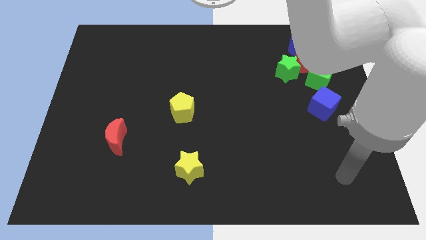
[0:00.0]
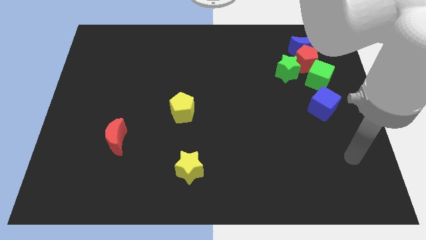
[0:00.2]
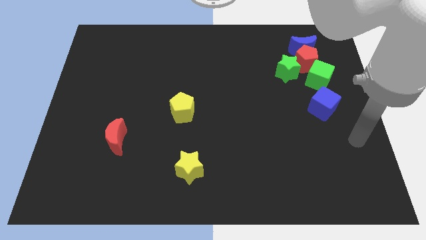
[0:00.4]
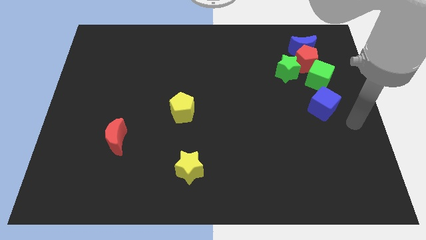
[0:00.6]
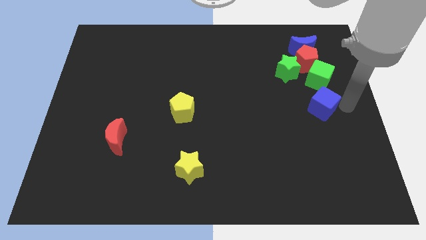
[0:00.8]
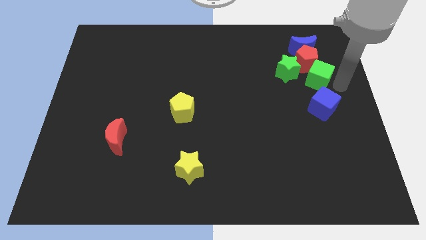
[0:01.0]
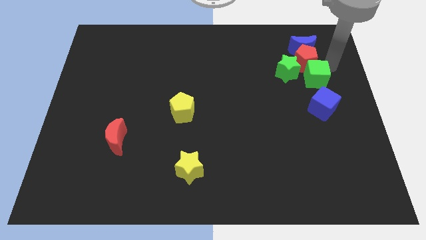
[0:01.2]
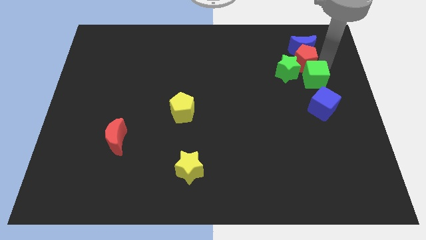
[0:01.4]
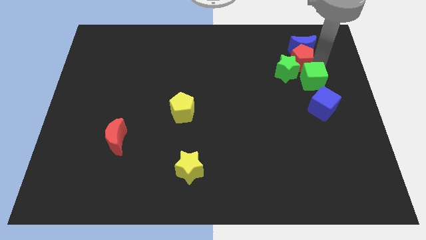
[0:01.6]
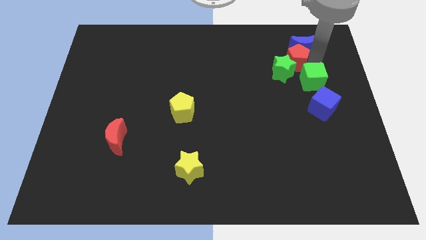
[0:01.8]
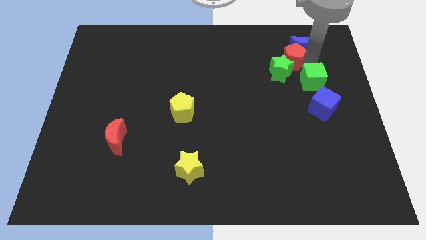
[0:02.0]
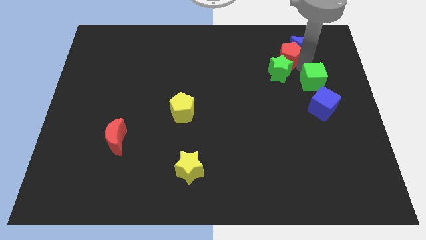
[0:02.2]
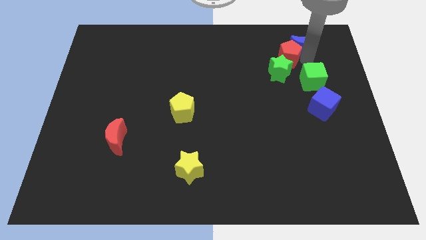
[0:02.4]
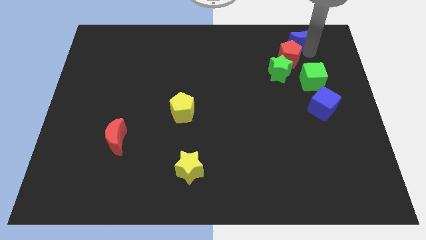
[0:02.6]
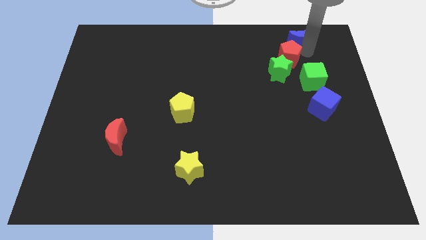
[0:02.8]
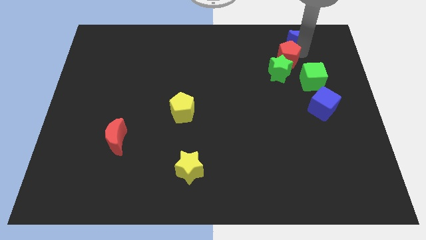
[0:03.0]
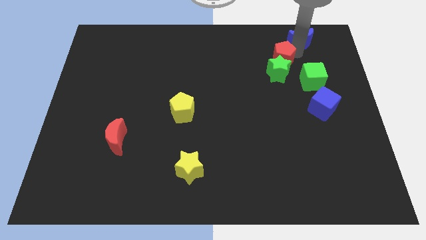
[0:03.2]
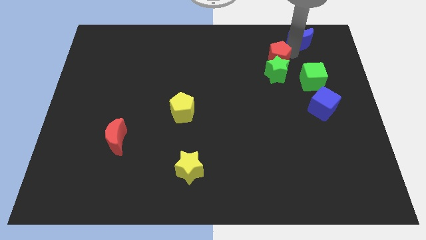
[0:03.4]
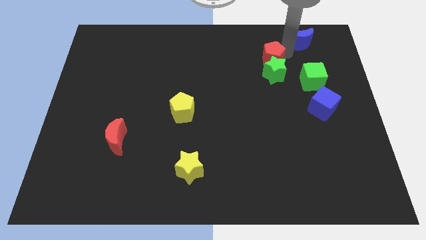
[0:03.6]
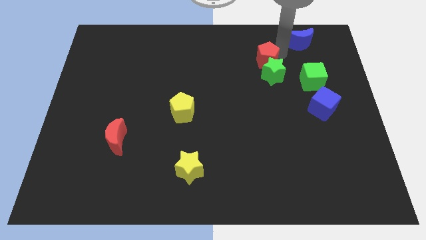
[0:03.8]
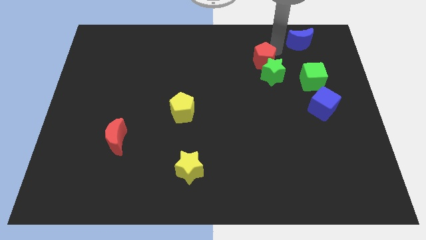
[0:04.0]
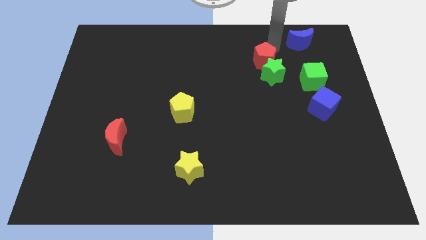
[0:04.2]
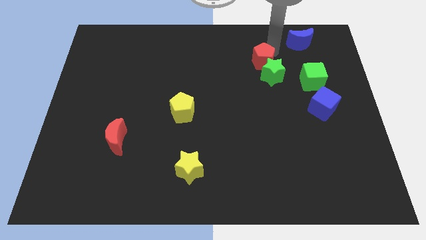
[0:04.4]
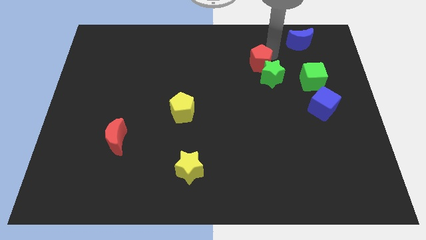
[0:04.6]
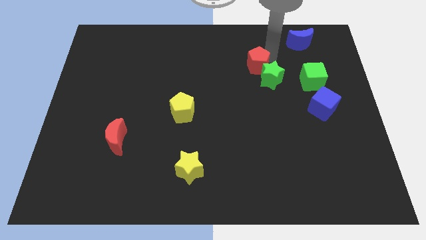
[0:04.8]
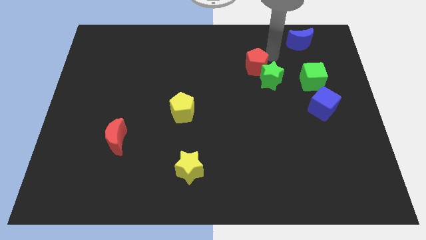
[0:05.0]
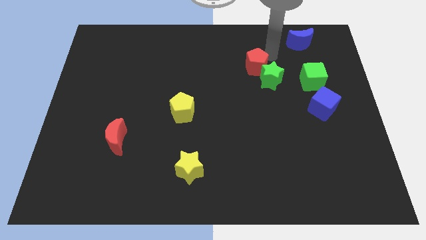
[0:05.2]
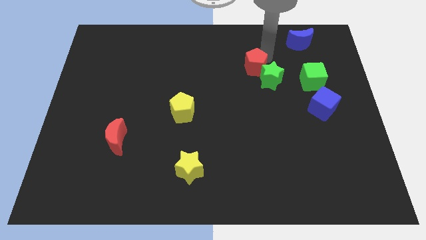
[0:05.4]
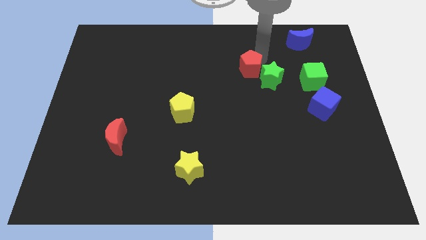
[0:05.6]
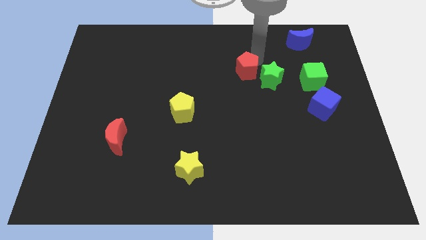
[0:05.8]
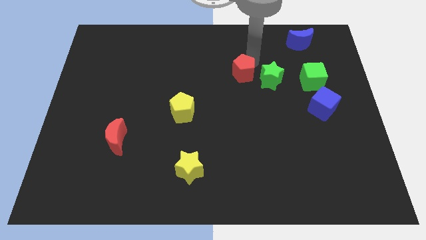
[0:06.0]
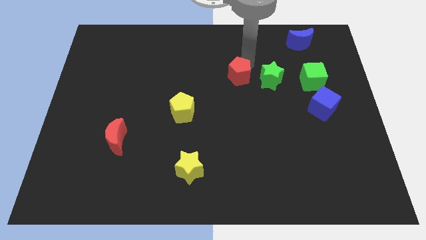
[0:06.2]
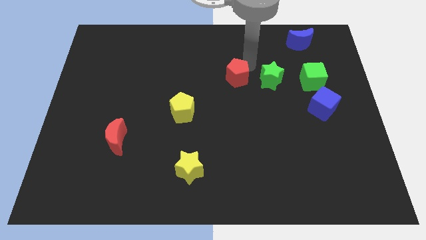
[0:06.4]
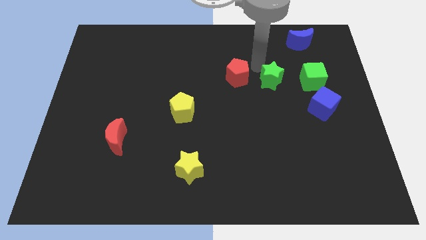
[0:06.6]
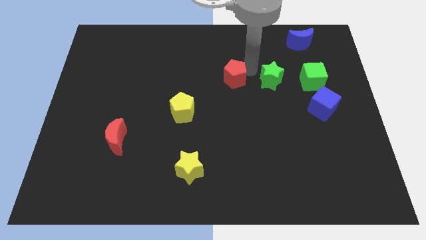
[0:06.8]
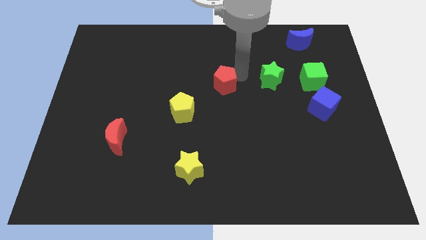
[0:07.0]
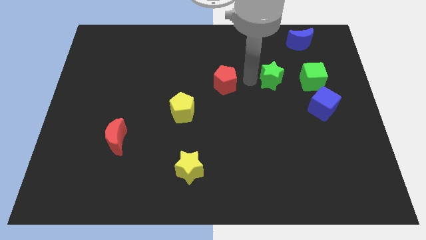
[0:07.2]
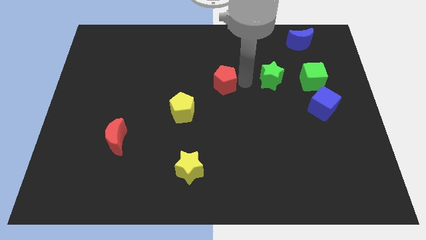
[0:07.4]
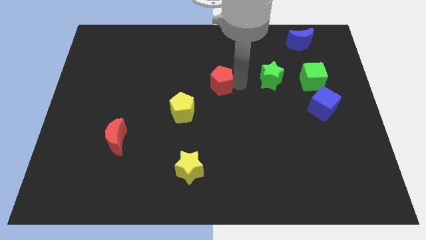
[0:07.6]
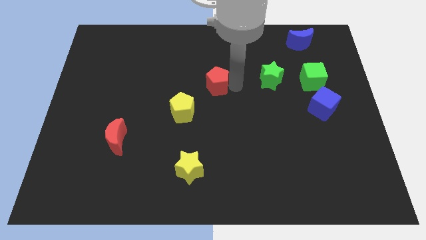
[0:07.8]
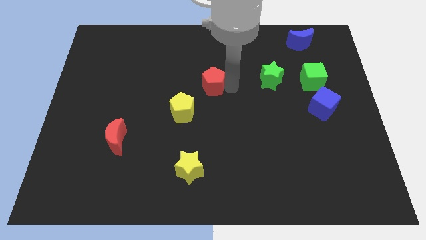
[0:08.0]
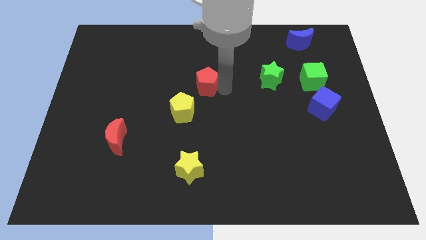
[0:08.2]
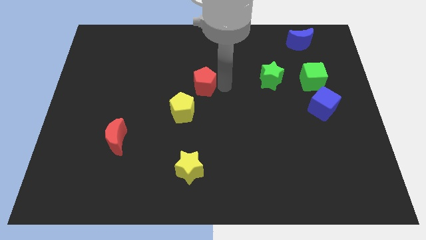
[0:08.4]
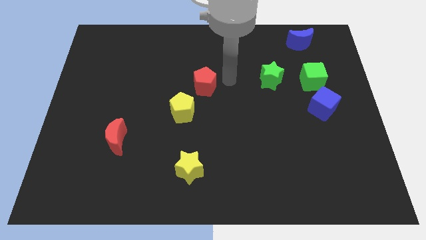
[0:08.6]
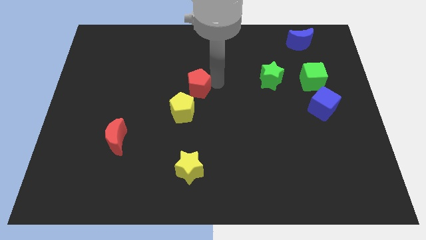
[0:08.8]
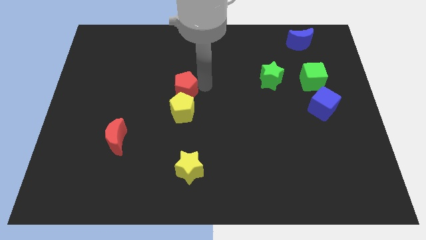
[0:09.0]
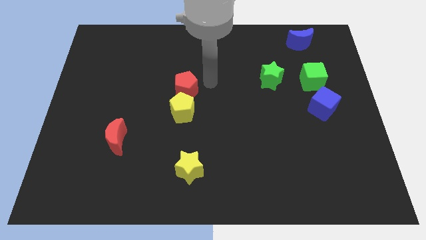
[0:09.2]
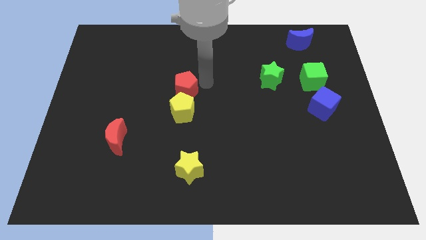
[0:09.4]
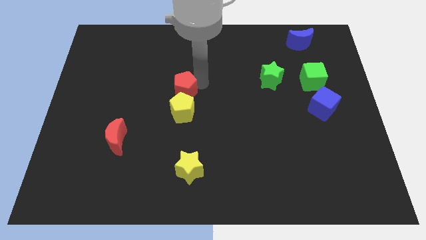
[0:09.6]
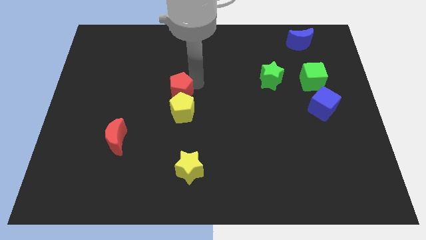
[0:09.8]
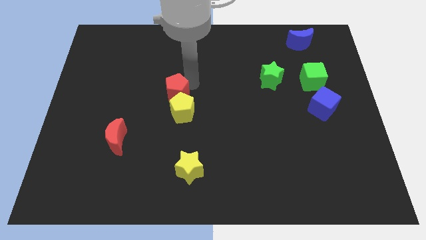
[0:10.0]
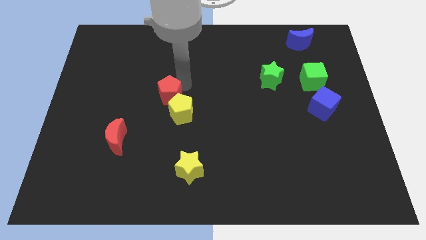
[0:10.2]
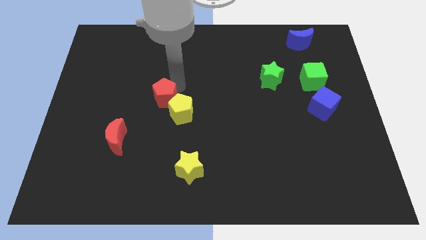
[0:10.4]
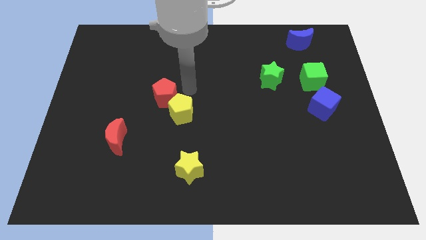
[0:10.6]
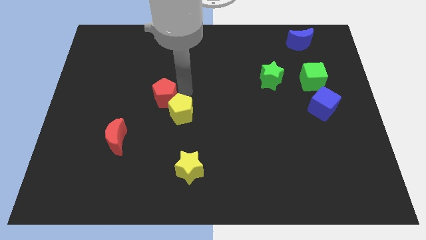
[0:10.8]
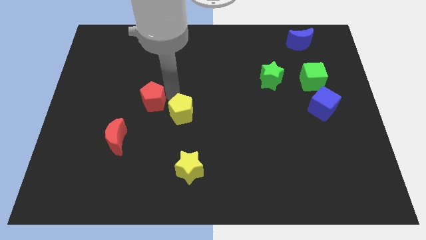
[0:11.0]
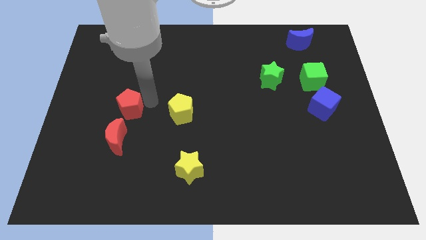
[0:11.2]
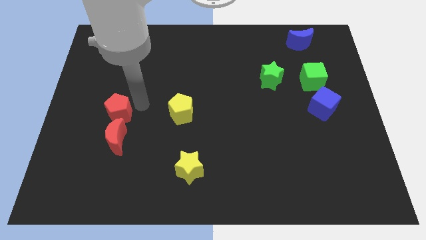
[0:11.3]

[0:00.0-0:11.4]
push the red pentagon to the top left of the red moon

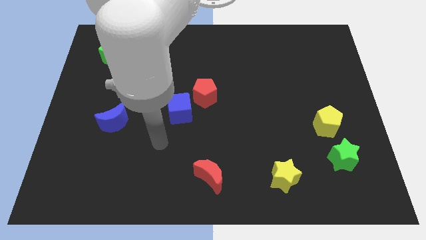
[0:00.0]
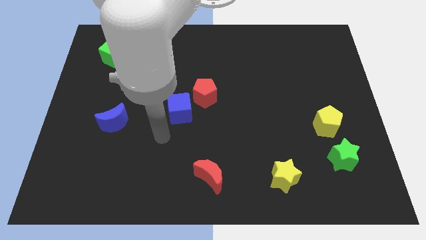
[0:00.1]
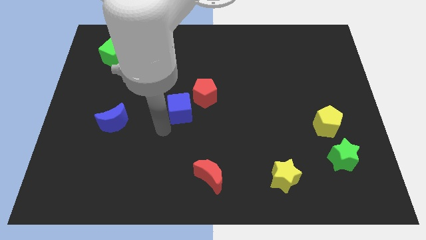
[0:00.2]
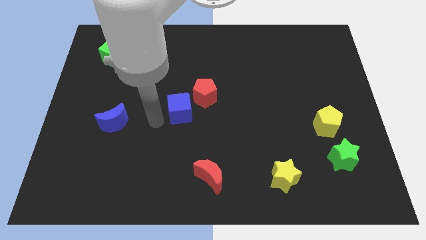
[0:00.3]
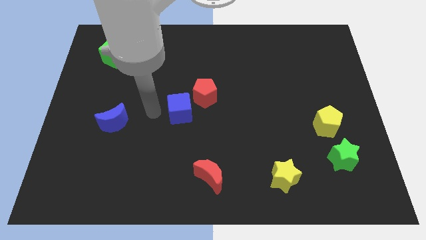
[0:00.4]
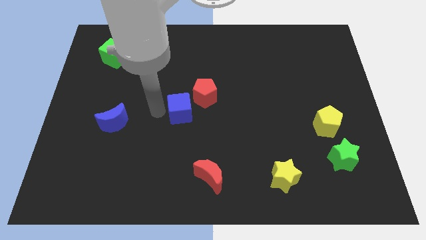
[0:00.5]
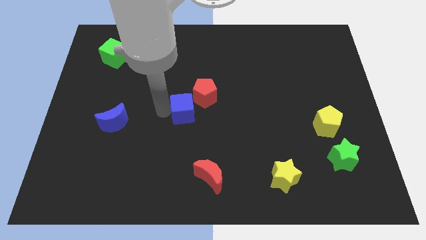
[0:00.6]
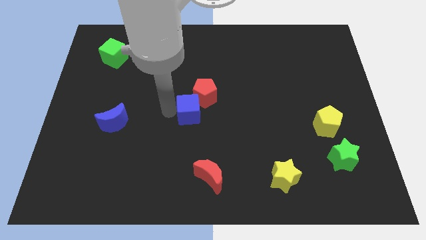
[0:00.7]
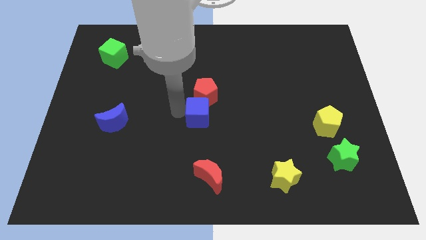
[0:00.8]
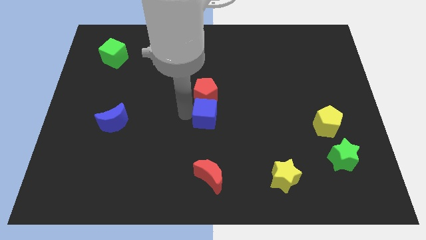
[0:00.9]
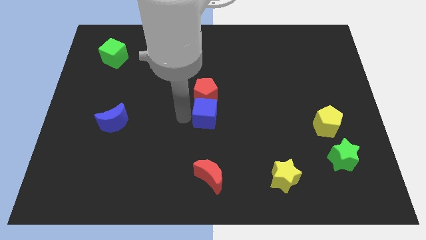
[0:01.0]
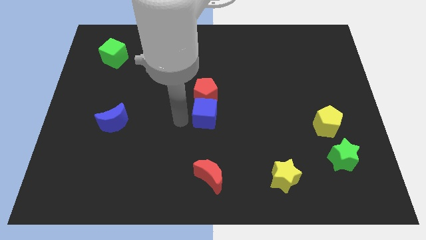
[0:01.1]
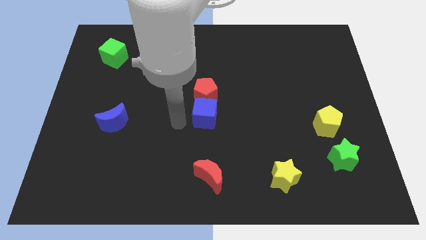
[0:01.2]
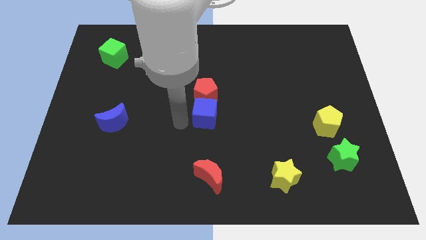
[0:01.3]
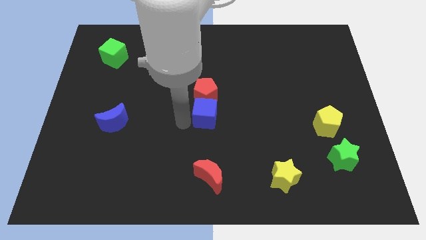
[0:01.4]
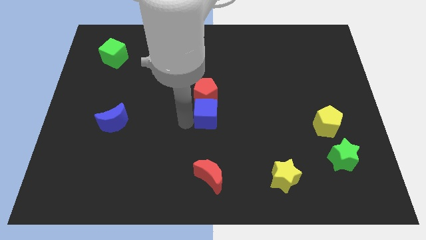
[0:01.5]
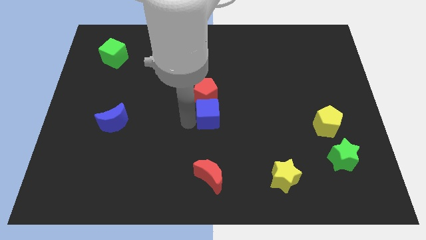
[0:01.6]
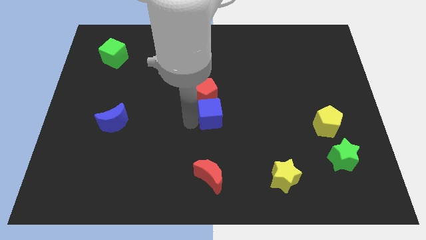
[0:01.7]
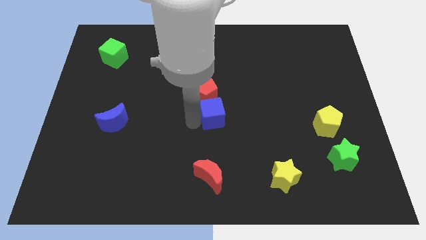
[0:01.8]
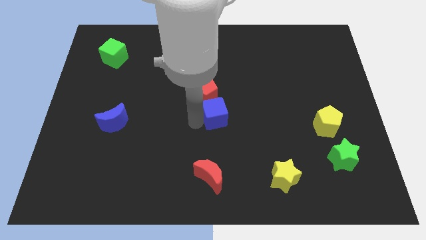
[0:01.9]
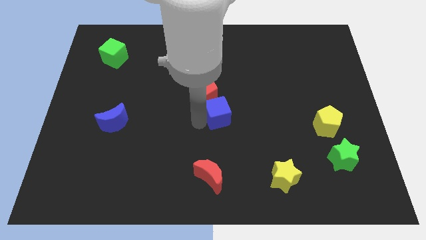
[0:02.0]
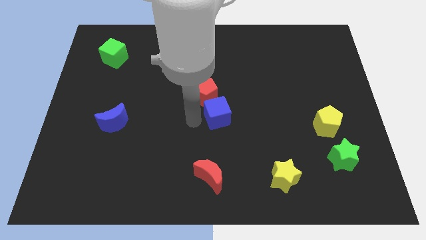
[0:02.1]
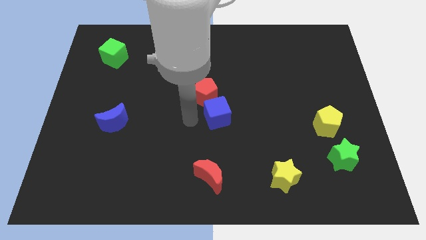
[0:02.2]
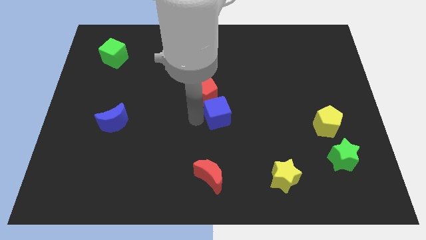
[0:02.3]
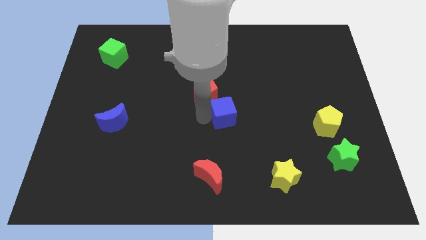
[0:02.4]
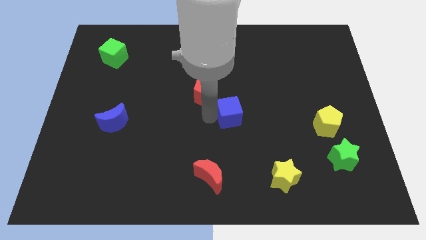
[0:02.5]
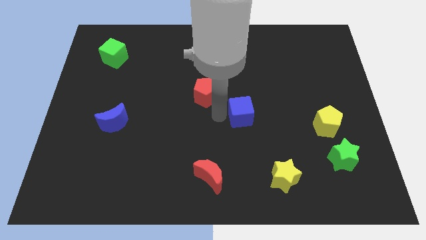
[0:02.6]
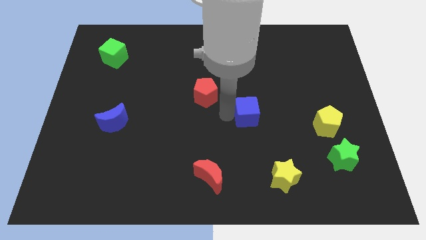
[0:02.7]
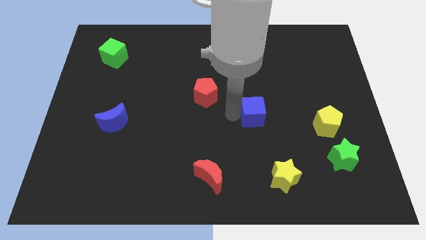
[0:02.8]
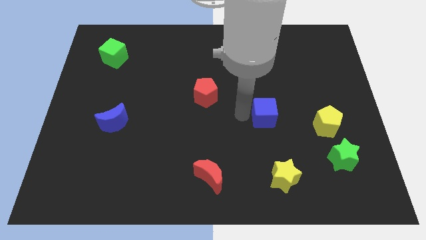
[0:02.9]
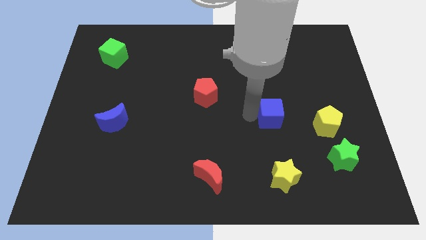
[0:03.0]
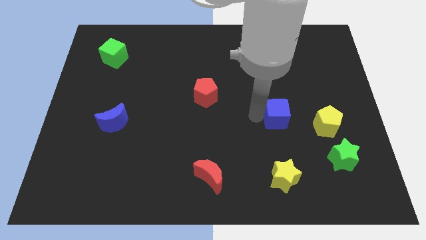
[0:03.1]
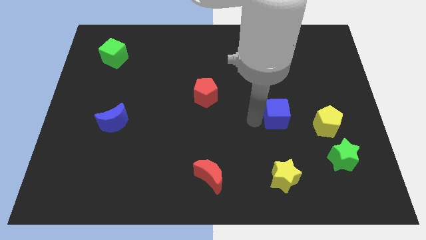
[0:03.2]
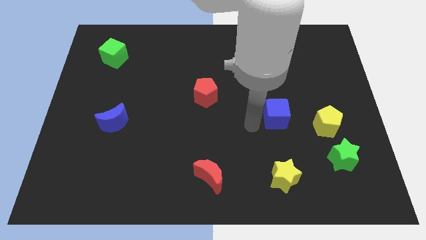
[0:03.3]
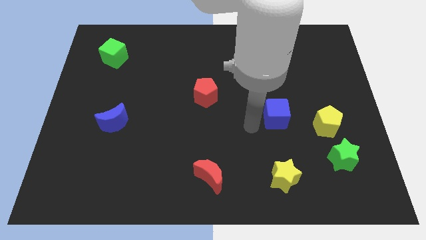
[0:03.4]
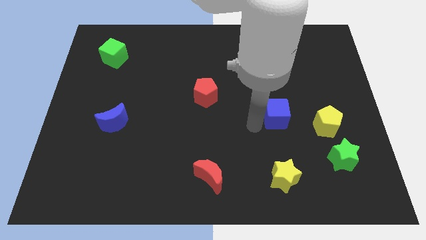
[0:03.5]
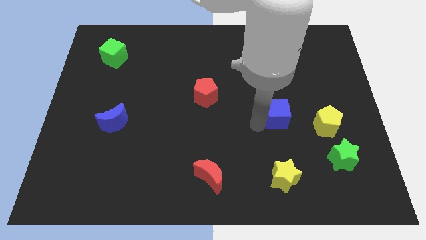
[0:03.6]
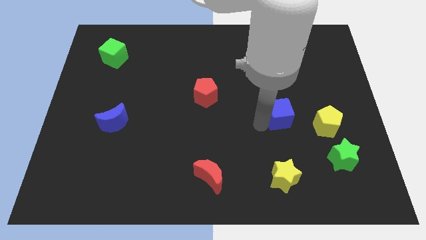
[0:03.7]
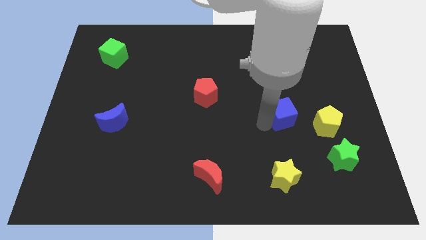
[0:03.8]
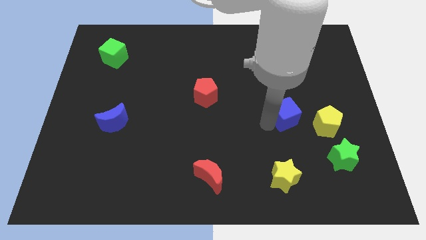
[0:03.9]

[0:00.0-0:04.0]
push the blue cube to the top left of the yellow pentagon
